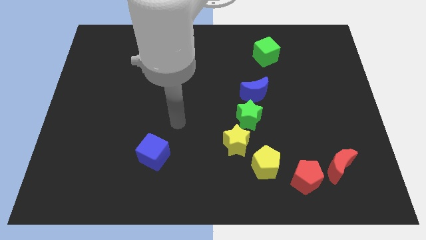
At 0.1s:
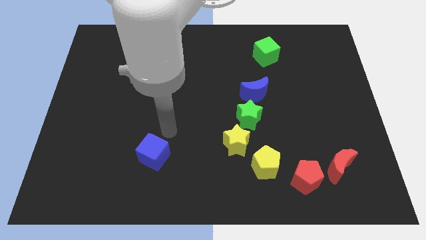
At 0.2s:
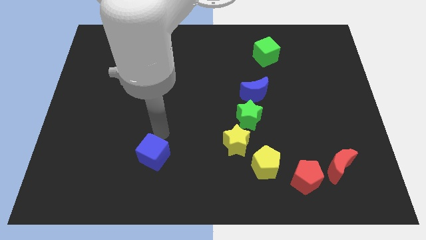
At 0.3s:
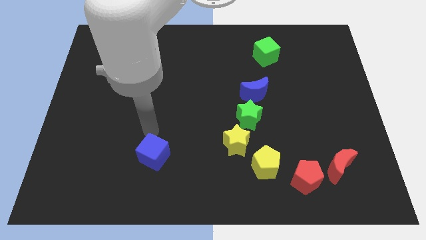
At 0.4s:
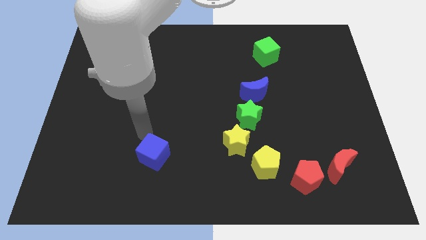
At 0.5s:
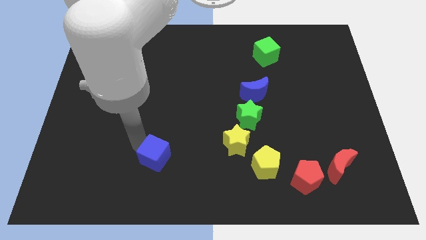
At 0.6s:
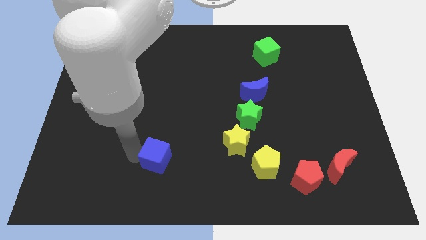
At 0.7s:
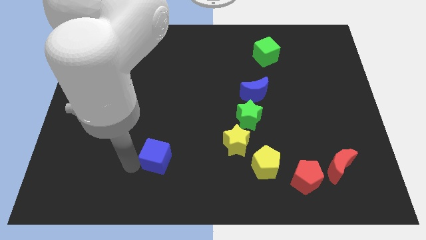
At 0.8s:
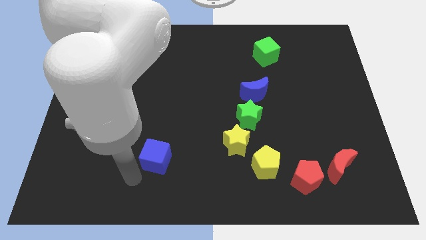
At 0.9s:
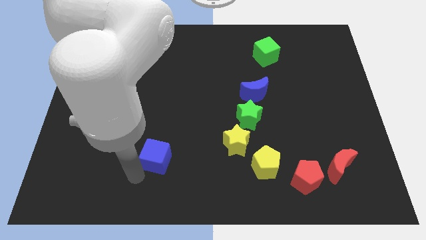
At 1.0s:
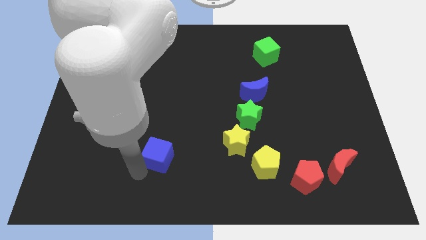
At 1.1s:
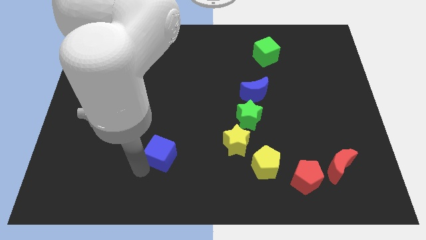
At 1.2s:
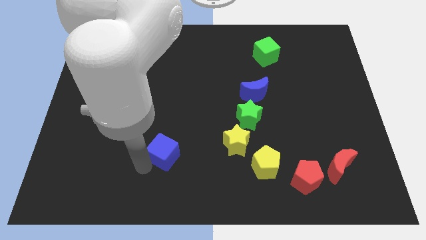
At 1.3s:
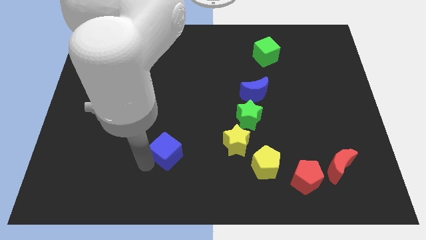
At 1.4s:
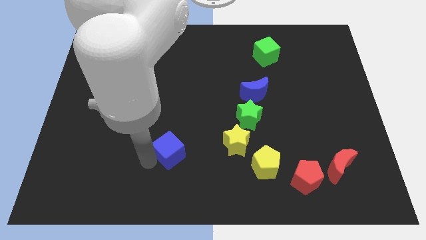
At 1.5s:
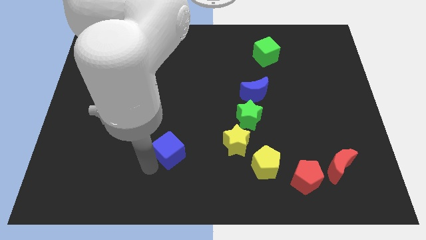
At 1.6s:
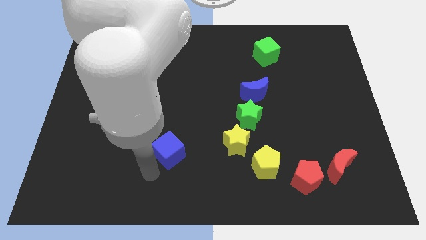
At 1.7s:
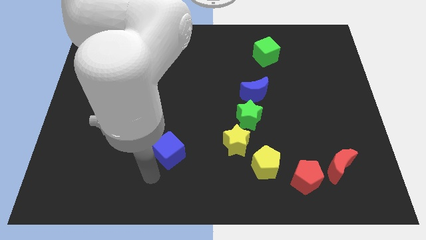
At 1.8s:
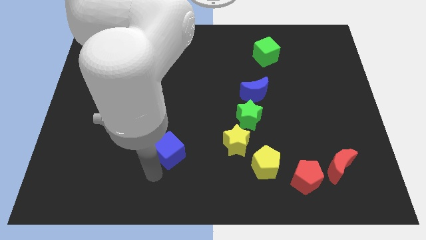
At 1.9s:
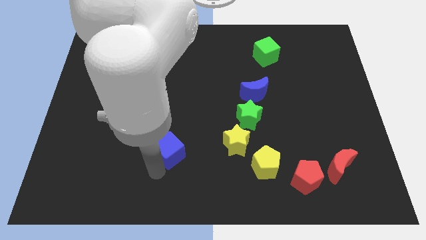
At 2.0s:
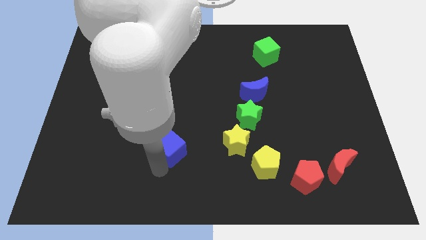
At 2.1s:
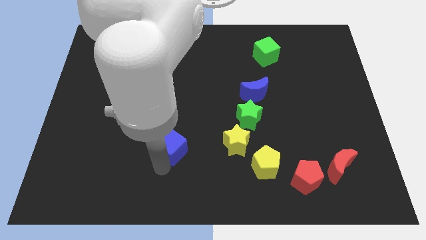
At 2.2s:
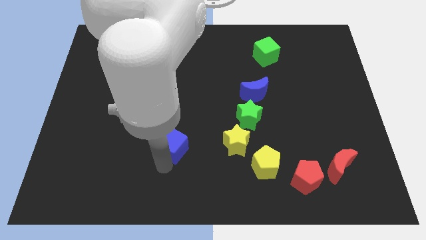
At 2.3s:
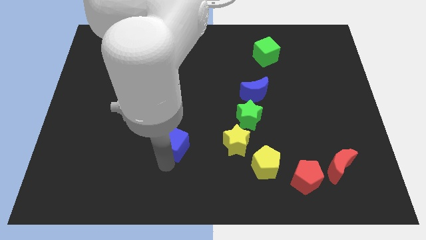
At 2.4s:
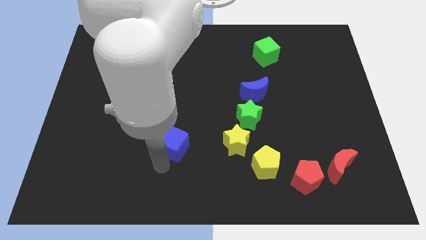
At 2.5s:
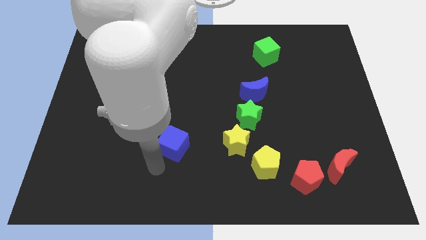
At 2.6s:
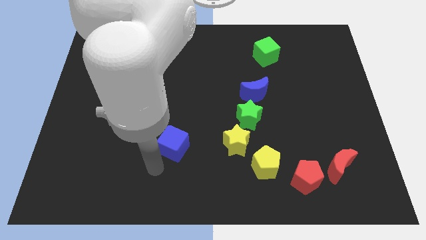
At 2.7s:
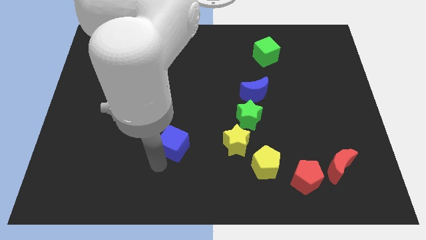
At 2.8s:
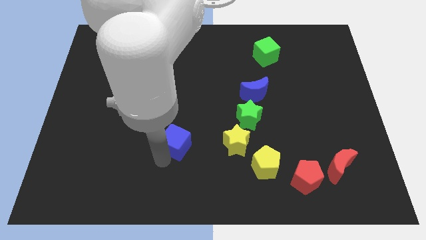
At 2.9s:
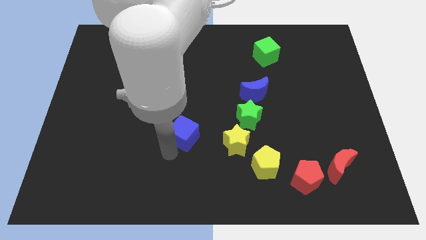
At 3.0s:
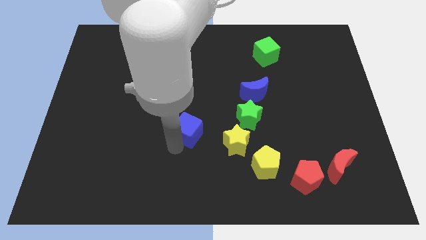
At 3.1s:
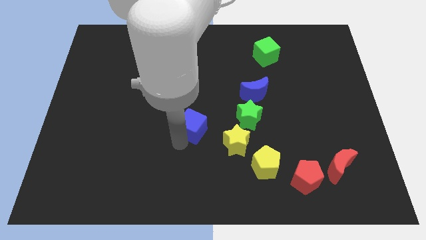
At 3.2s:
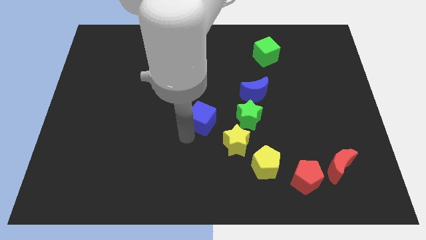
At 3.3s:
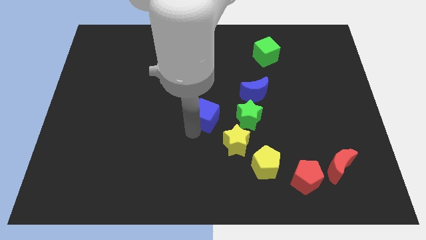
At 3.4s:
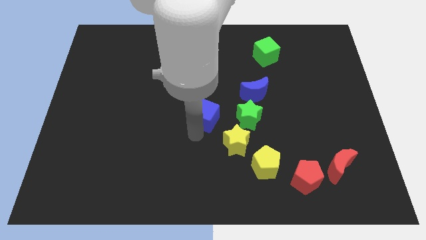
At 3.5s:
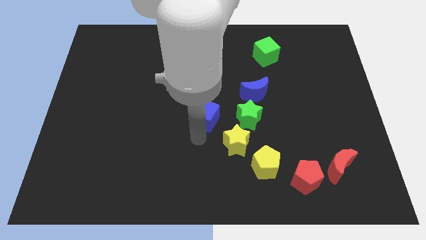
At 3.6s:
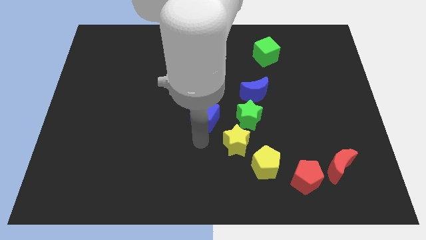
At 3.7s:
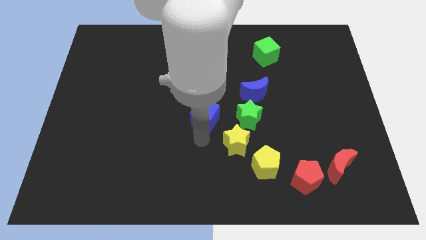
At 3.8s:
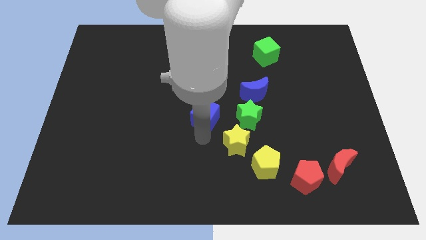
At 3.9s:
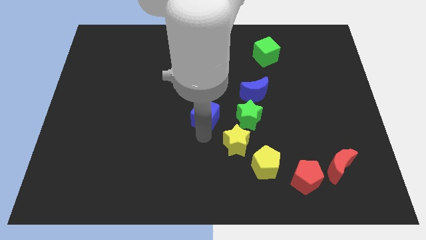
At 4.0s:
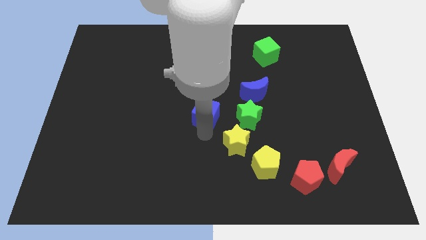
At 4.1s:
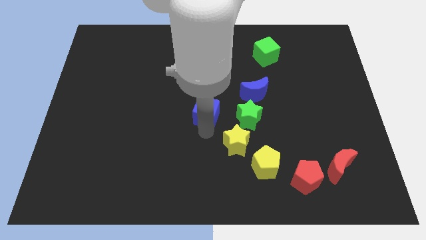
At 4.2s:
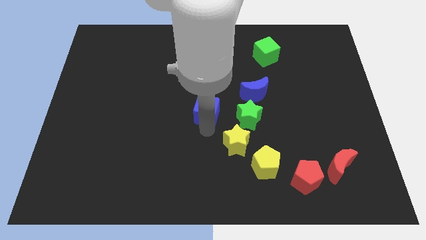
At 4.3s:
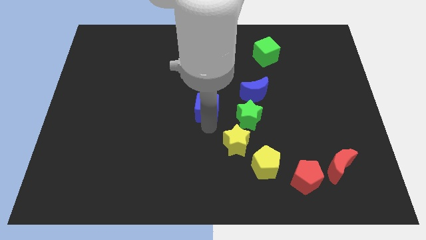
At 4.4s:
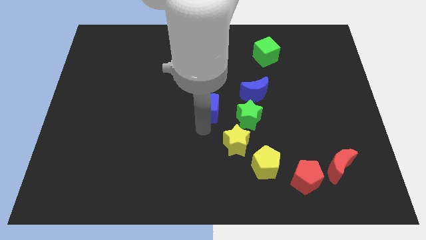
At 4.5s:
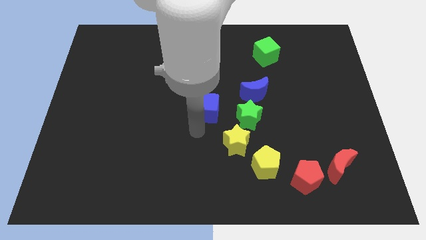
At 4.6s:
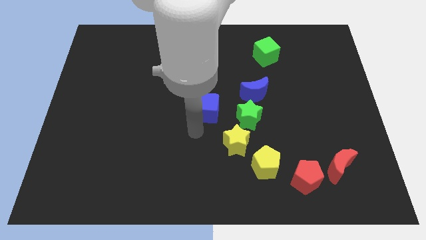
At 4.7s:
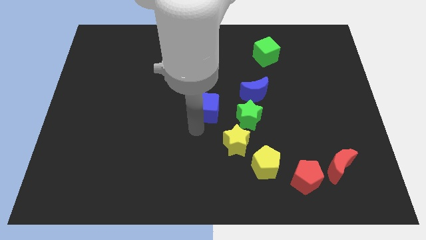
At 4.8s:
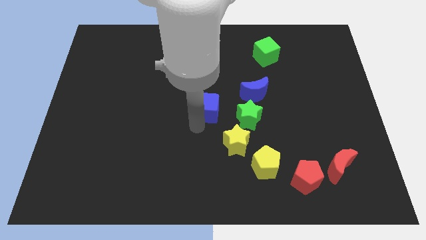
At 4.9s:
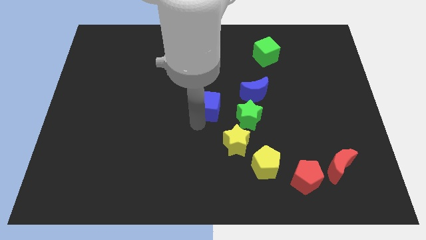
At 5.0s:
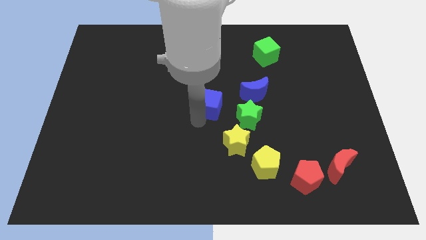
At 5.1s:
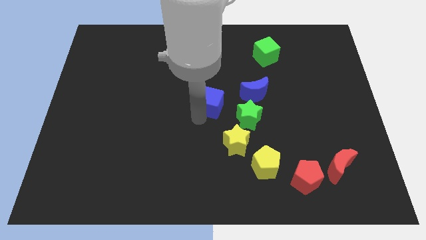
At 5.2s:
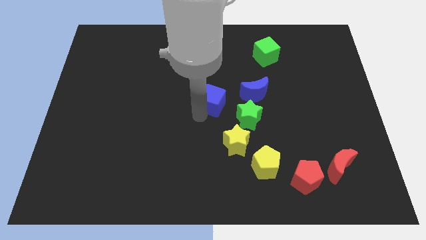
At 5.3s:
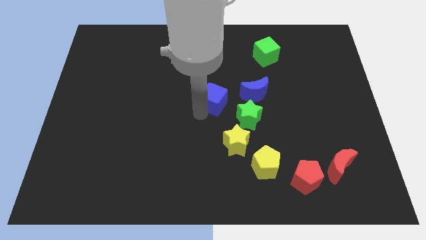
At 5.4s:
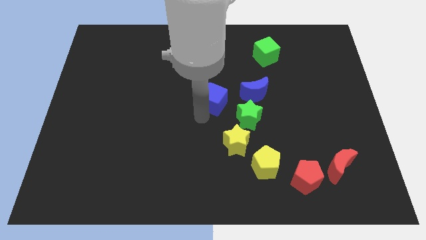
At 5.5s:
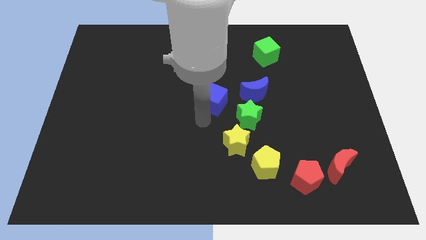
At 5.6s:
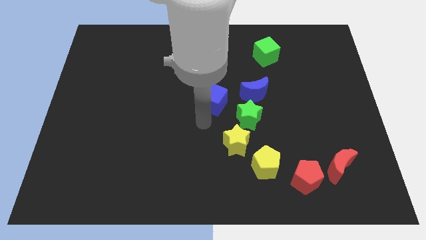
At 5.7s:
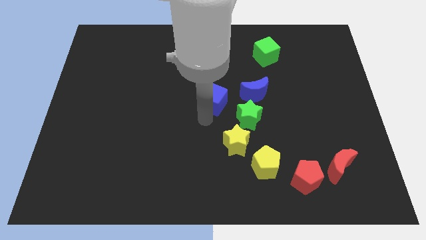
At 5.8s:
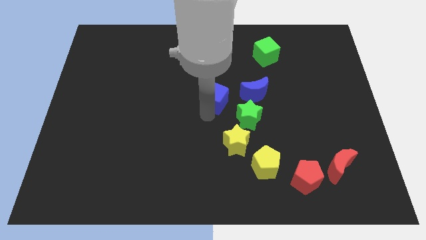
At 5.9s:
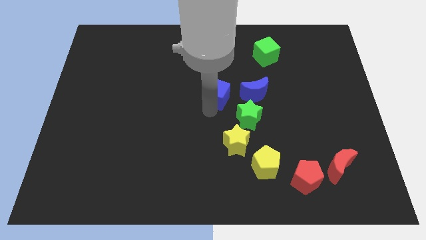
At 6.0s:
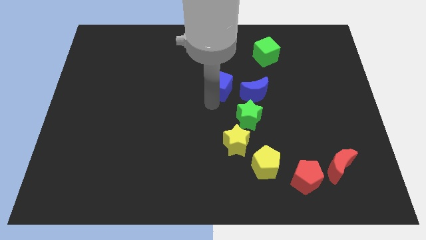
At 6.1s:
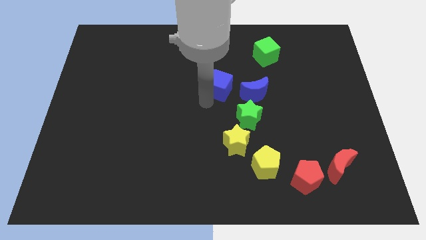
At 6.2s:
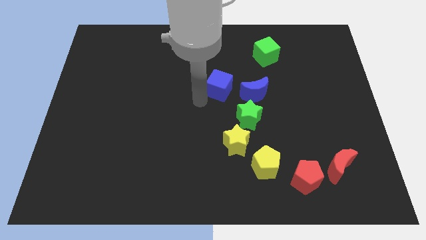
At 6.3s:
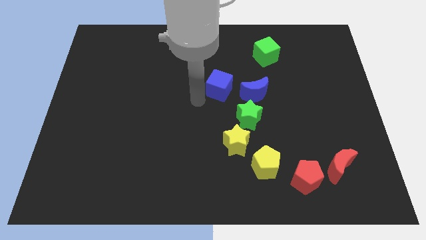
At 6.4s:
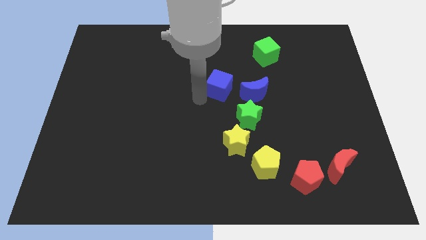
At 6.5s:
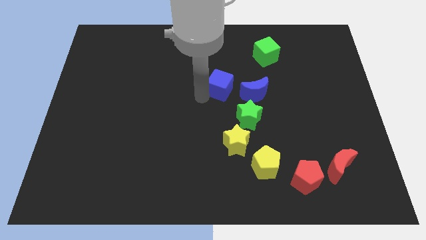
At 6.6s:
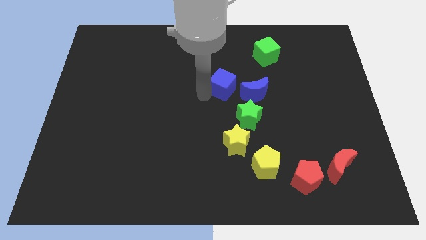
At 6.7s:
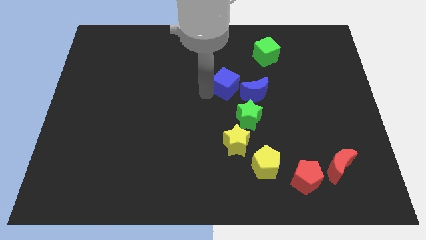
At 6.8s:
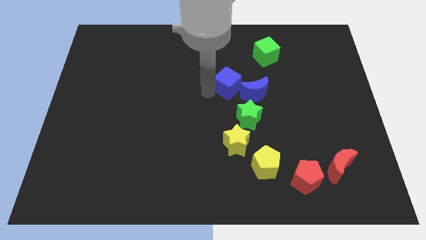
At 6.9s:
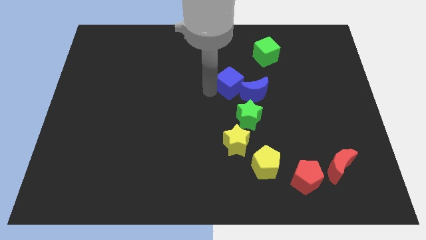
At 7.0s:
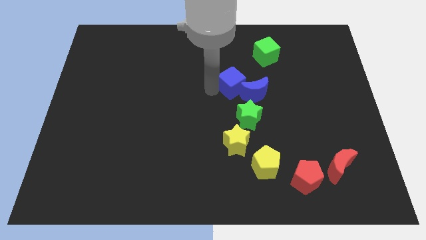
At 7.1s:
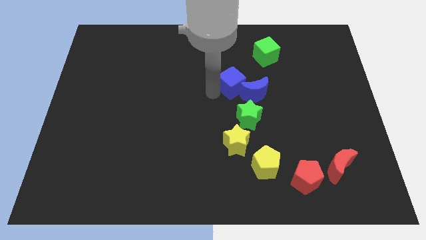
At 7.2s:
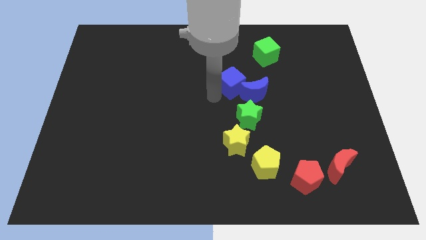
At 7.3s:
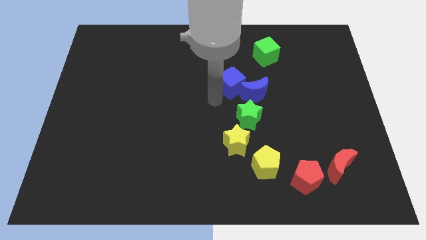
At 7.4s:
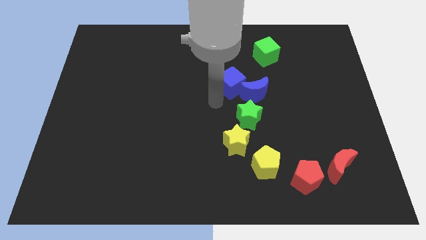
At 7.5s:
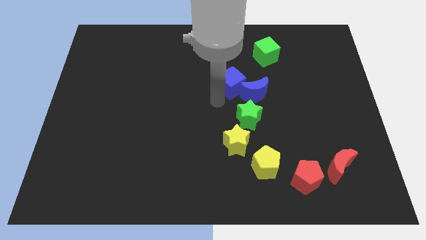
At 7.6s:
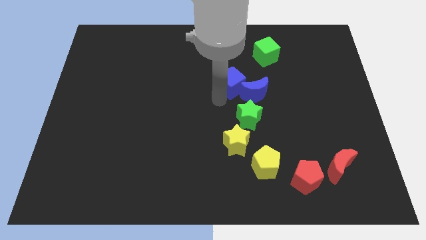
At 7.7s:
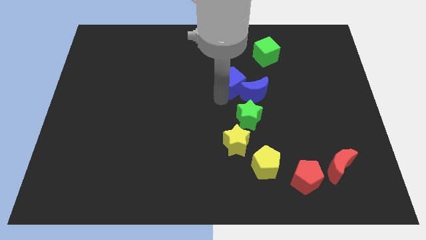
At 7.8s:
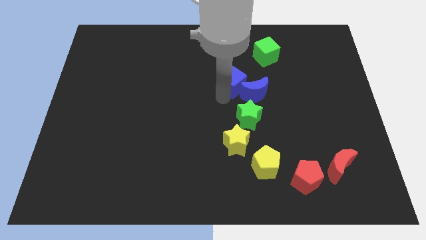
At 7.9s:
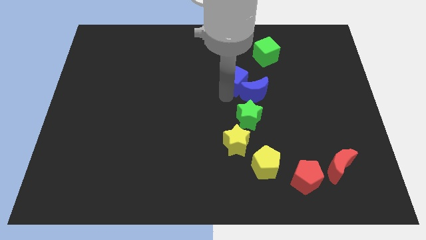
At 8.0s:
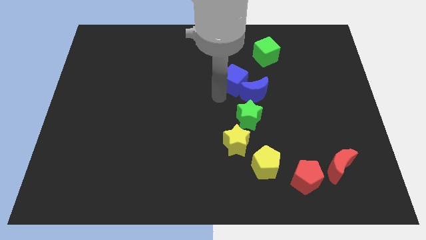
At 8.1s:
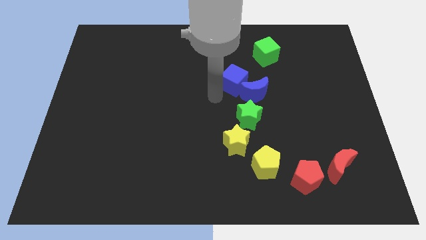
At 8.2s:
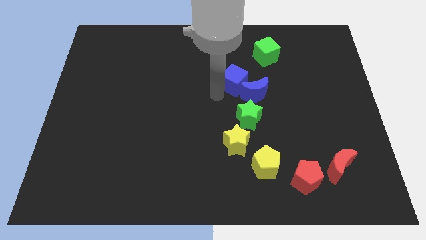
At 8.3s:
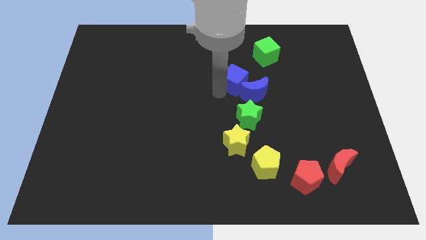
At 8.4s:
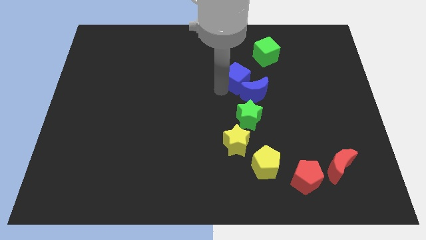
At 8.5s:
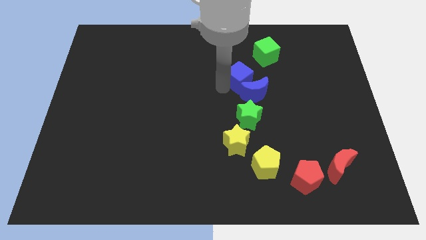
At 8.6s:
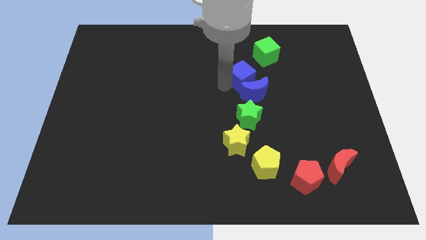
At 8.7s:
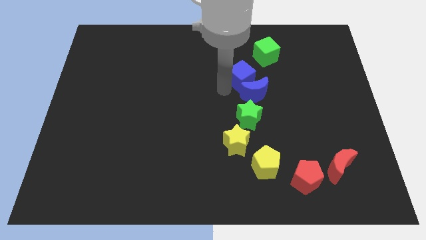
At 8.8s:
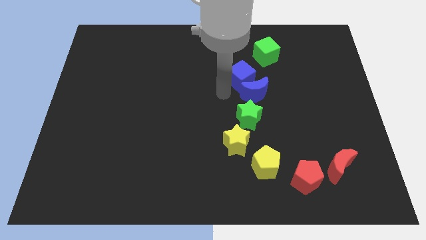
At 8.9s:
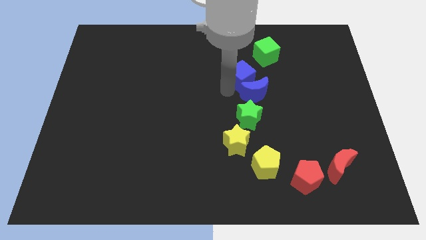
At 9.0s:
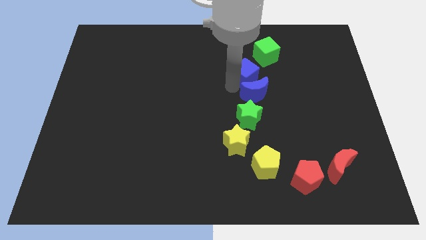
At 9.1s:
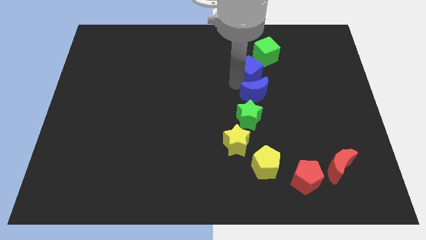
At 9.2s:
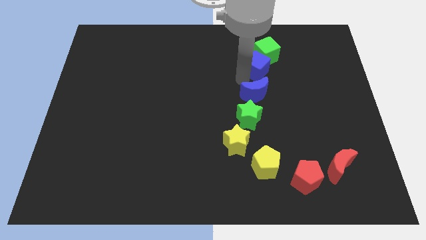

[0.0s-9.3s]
slide the blue cube towards the green cube
